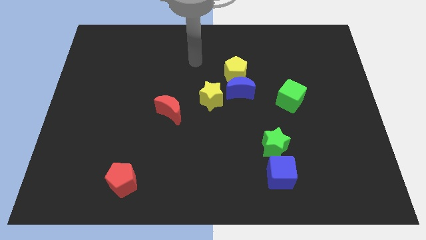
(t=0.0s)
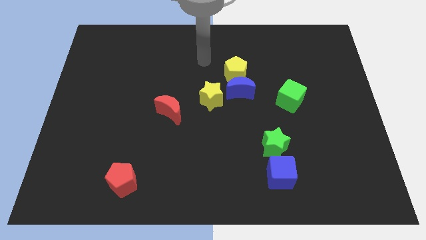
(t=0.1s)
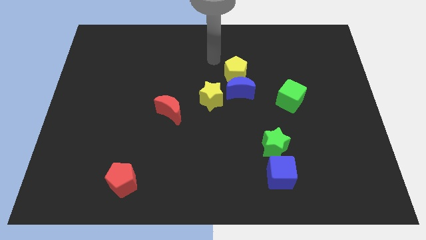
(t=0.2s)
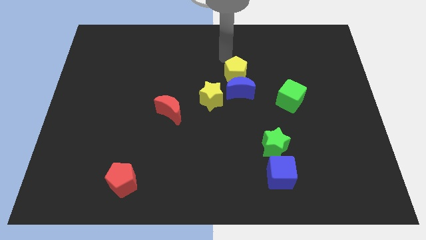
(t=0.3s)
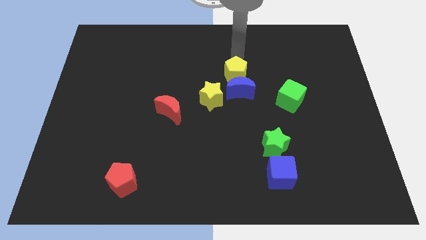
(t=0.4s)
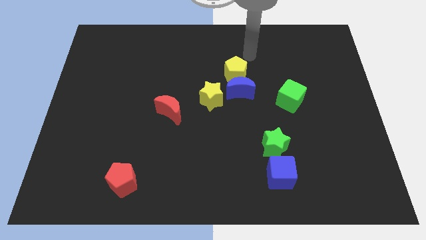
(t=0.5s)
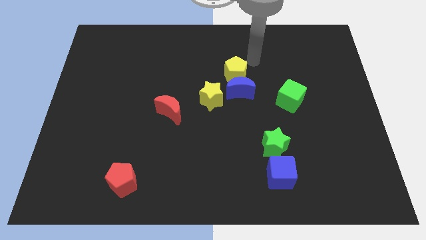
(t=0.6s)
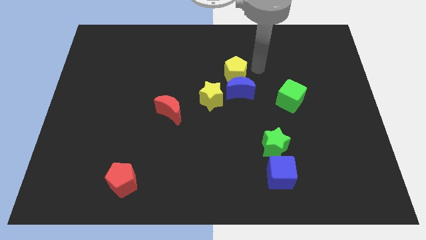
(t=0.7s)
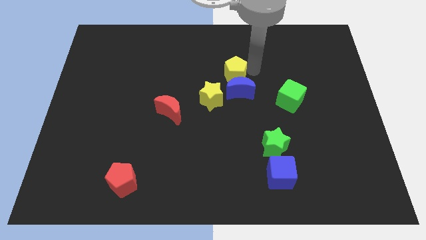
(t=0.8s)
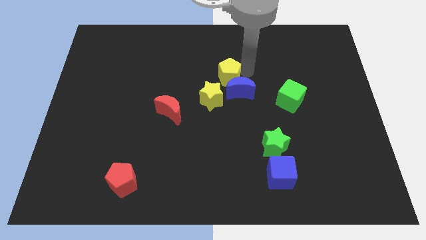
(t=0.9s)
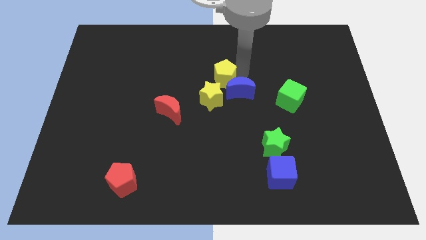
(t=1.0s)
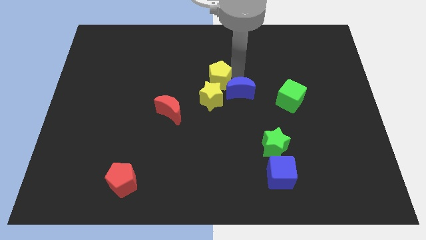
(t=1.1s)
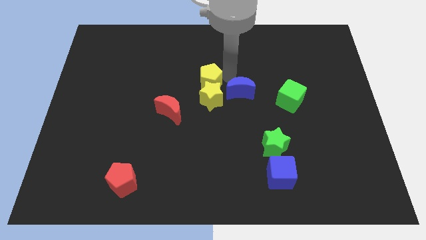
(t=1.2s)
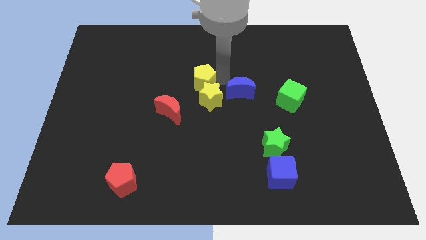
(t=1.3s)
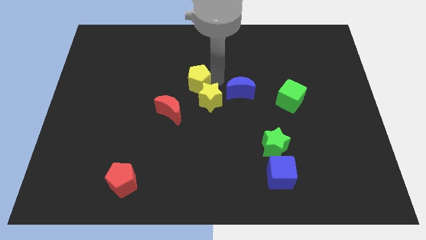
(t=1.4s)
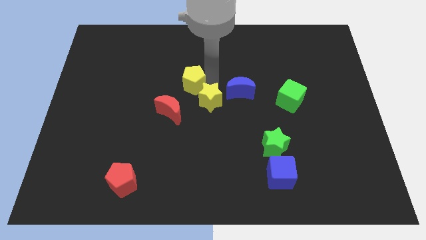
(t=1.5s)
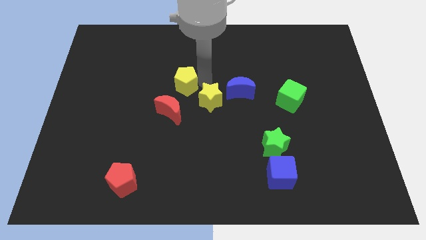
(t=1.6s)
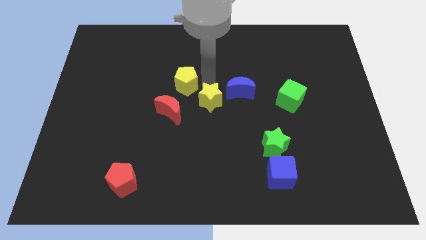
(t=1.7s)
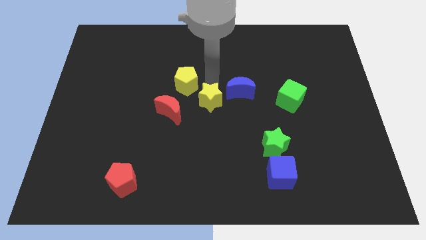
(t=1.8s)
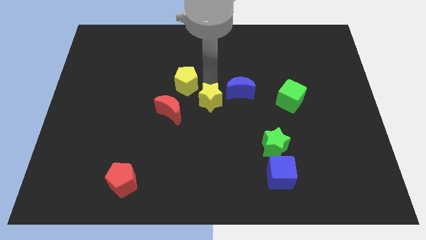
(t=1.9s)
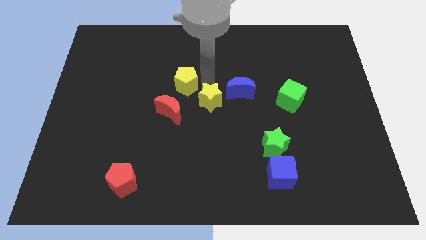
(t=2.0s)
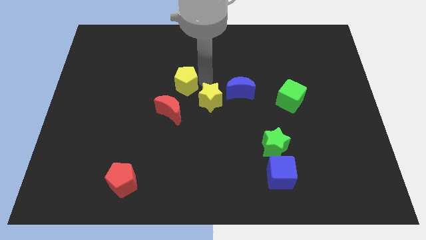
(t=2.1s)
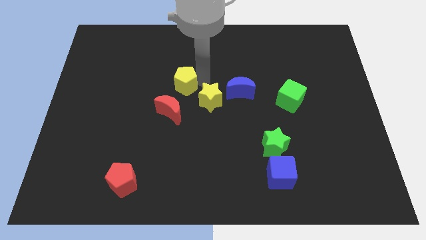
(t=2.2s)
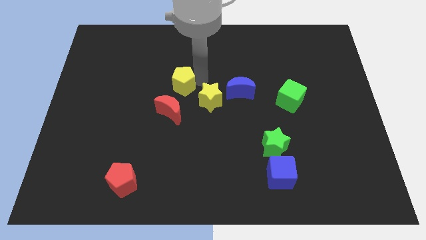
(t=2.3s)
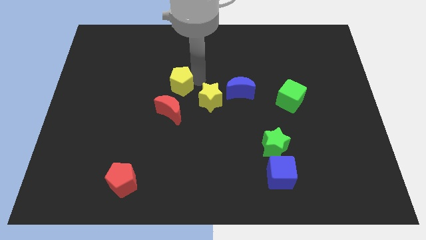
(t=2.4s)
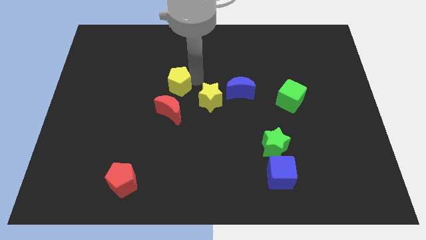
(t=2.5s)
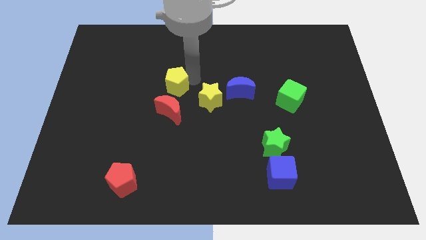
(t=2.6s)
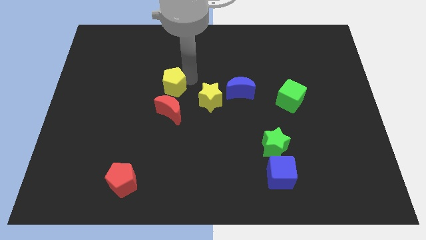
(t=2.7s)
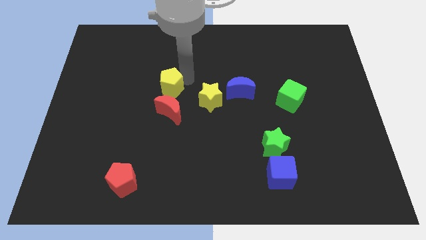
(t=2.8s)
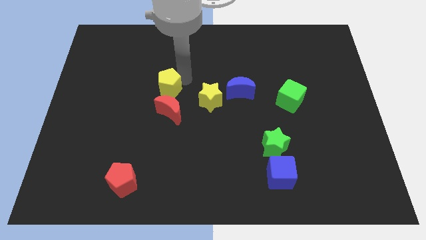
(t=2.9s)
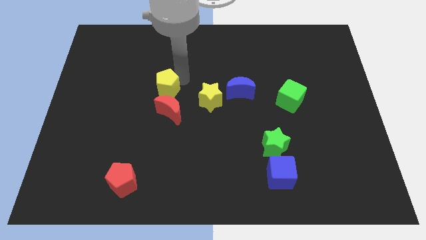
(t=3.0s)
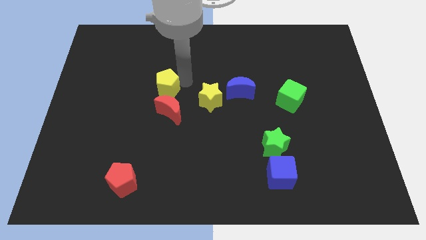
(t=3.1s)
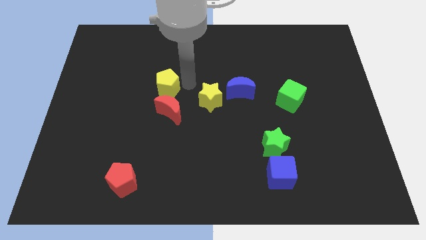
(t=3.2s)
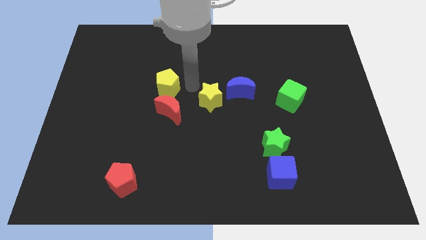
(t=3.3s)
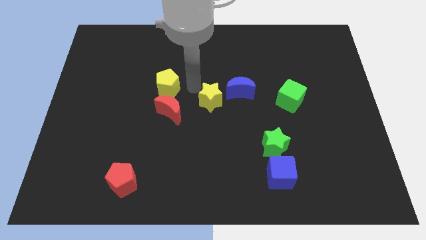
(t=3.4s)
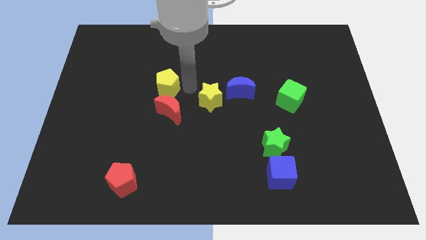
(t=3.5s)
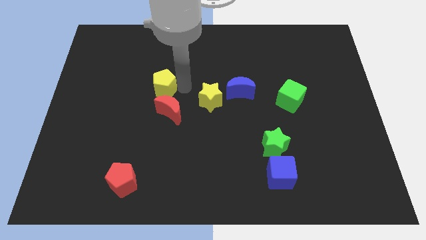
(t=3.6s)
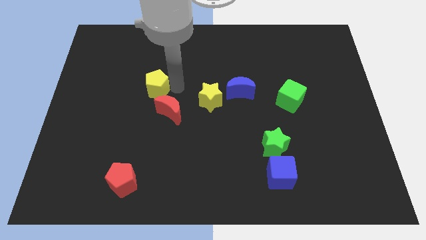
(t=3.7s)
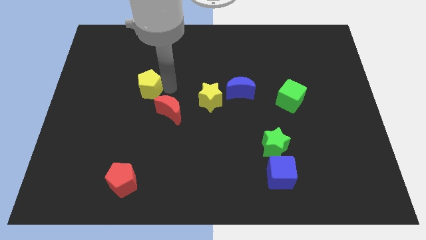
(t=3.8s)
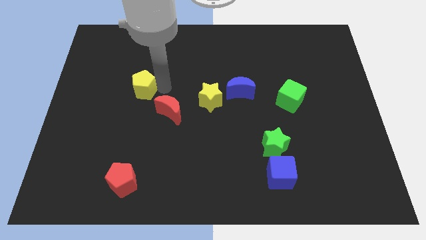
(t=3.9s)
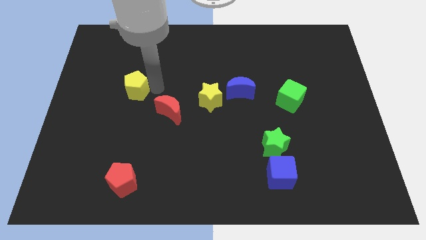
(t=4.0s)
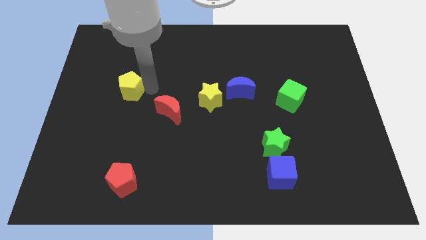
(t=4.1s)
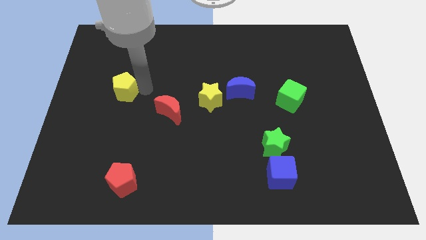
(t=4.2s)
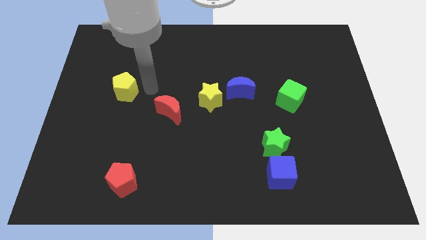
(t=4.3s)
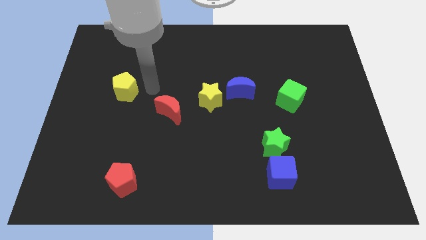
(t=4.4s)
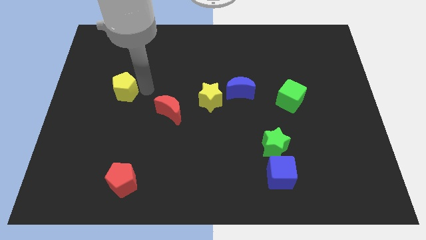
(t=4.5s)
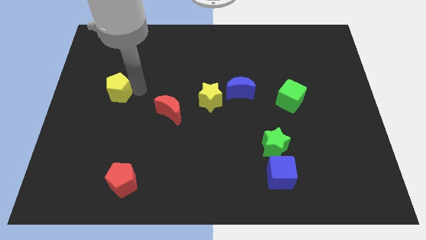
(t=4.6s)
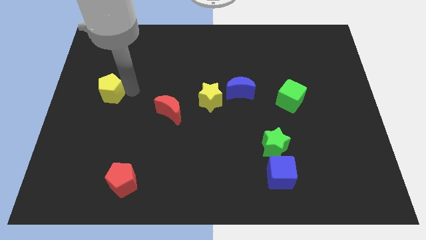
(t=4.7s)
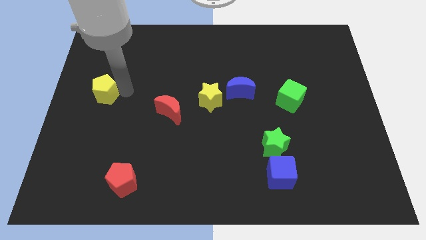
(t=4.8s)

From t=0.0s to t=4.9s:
put the yellow pentagon to the center left
